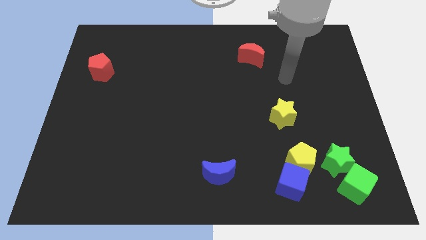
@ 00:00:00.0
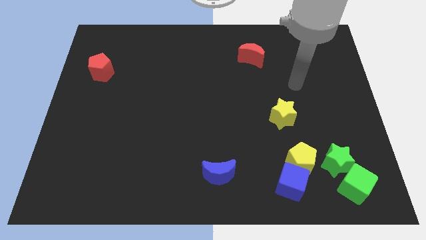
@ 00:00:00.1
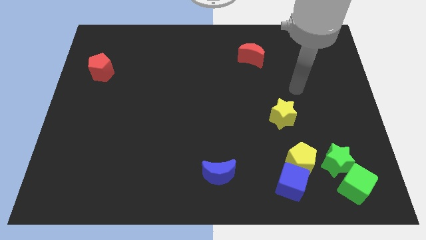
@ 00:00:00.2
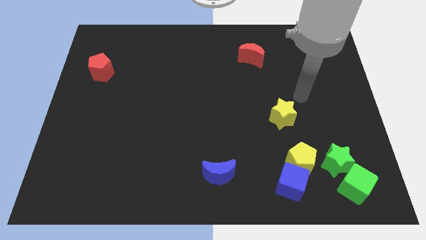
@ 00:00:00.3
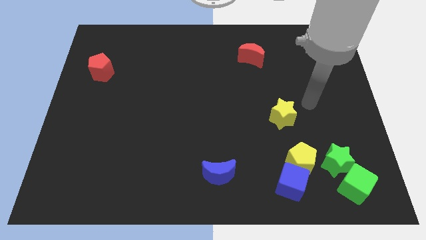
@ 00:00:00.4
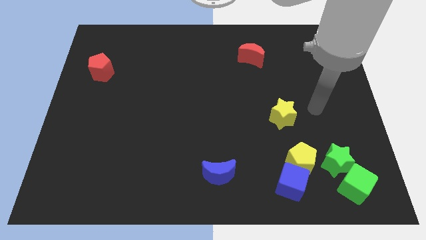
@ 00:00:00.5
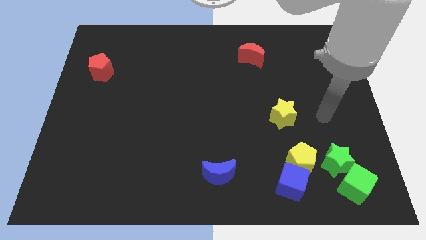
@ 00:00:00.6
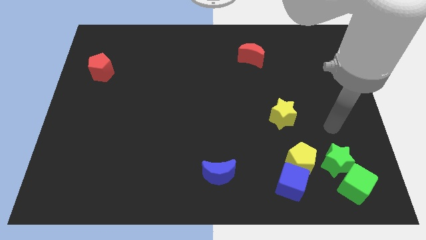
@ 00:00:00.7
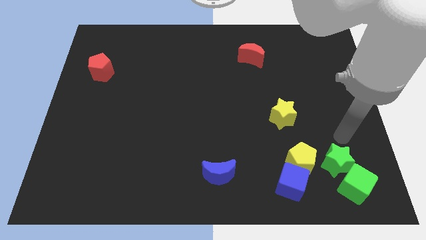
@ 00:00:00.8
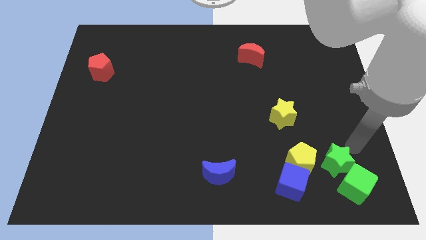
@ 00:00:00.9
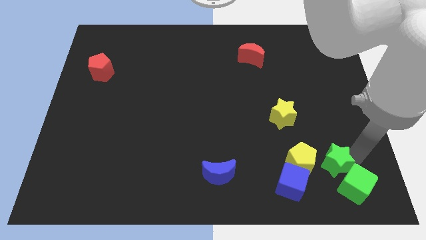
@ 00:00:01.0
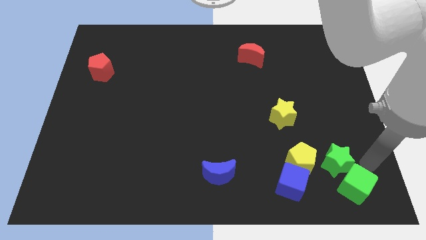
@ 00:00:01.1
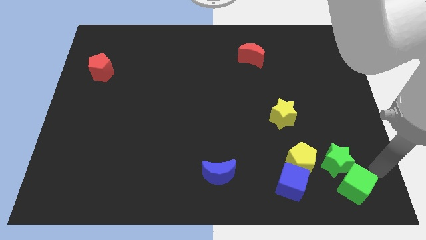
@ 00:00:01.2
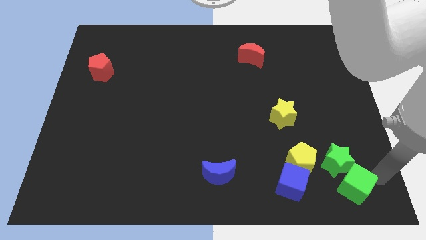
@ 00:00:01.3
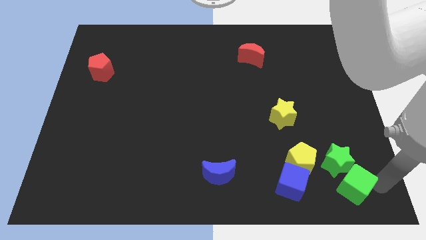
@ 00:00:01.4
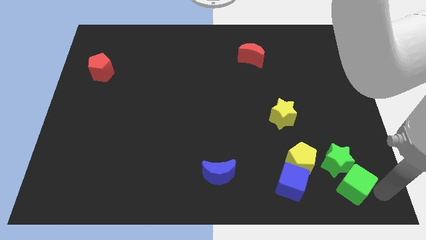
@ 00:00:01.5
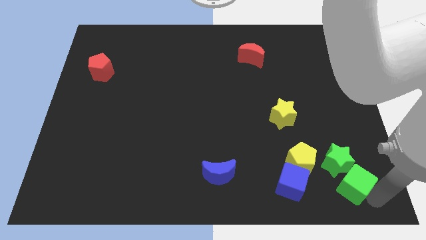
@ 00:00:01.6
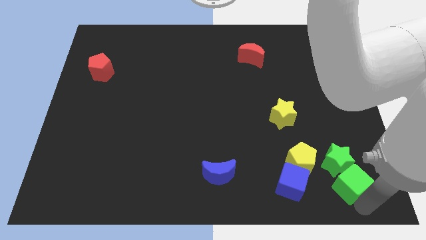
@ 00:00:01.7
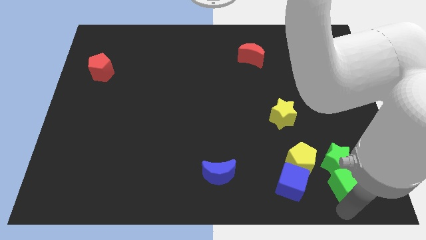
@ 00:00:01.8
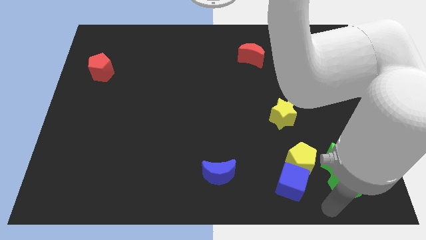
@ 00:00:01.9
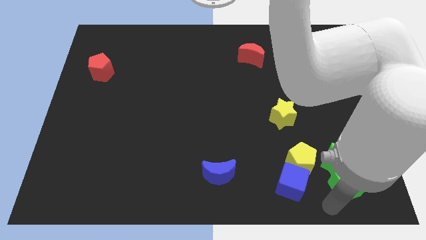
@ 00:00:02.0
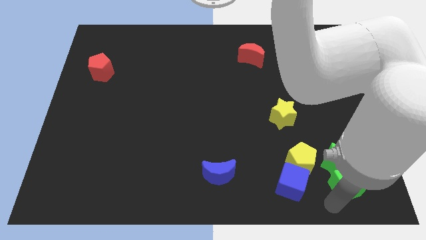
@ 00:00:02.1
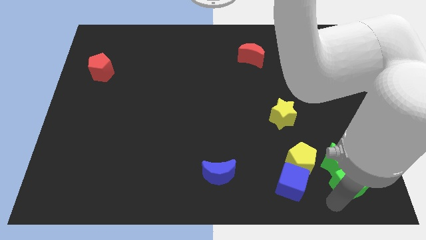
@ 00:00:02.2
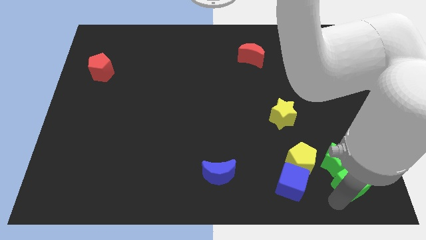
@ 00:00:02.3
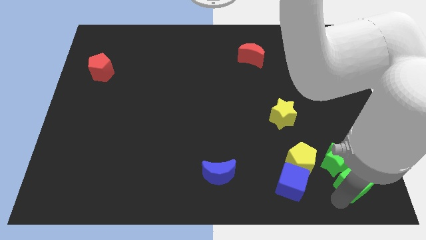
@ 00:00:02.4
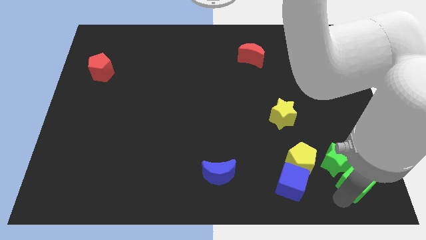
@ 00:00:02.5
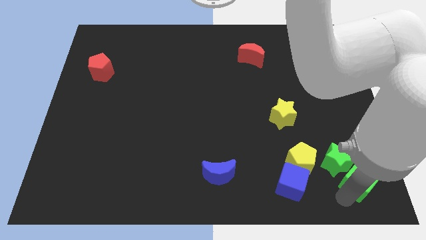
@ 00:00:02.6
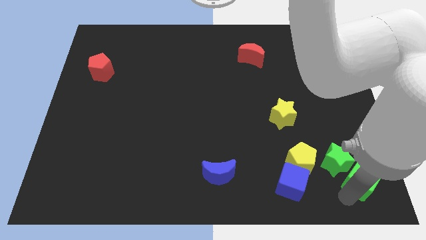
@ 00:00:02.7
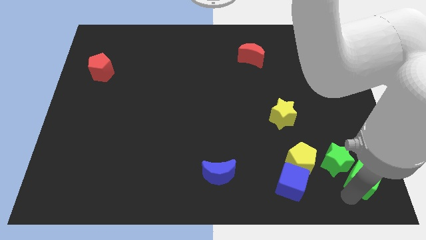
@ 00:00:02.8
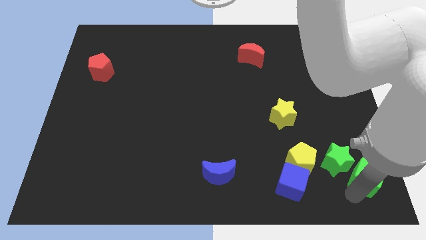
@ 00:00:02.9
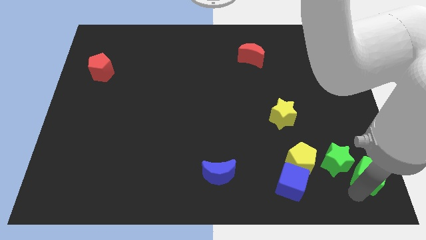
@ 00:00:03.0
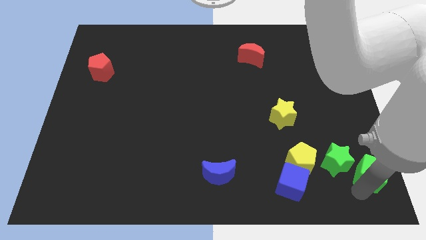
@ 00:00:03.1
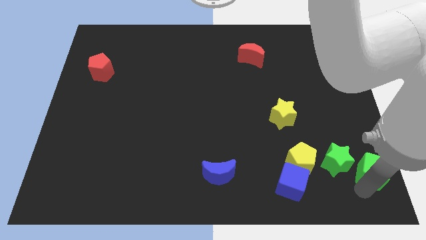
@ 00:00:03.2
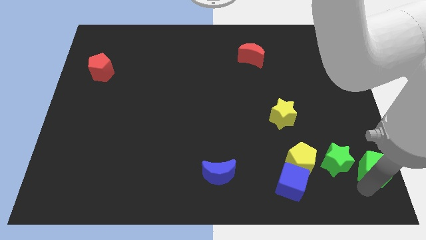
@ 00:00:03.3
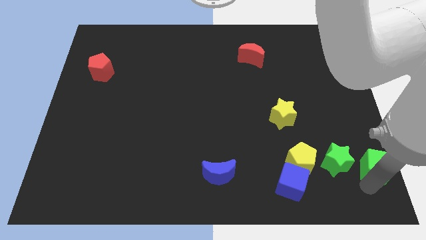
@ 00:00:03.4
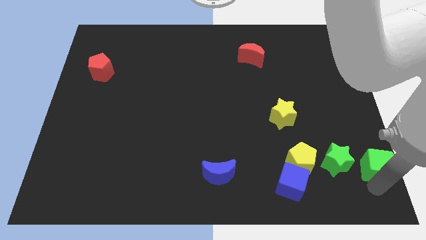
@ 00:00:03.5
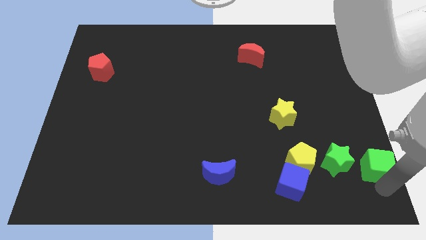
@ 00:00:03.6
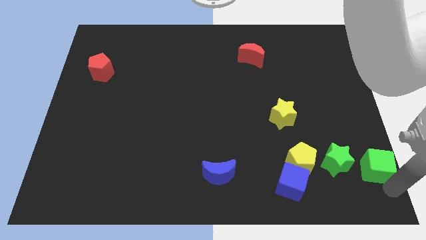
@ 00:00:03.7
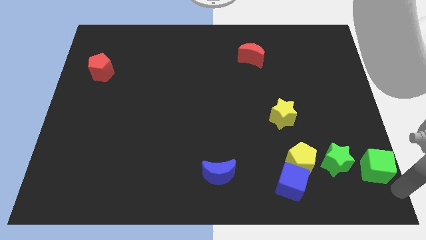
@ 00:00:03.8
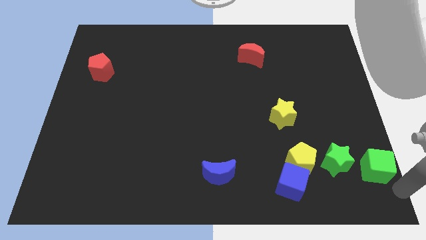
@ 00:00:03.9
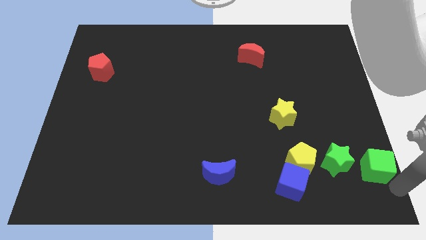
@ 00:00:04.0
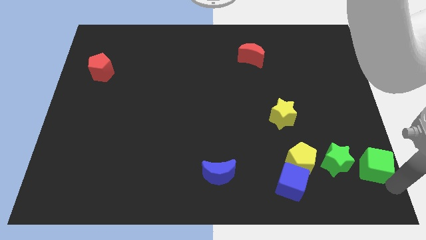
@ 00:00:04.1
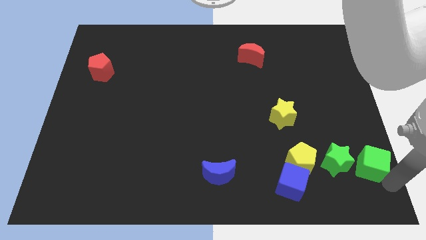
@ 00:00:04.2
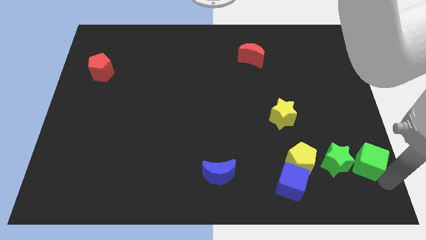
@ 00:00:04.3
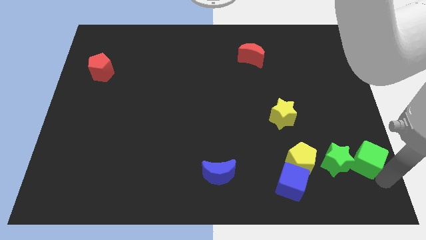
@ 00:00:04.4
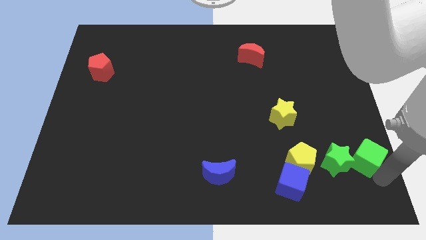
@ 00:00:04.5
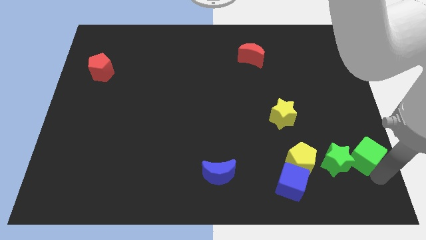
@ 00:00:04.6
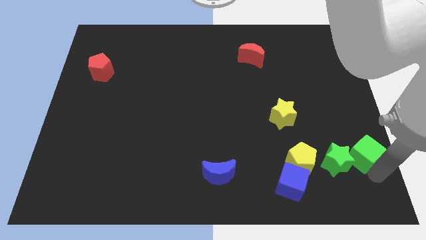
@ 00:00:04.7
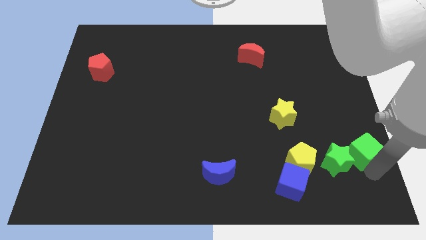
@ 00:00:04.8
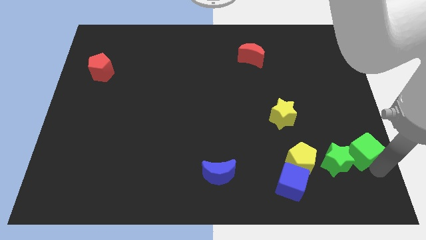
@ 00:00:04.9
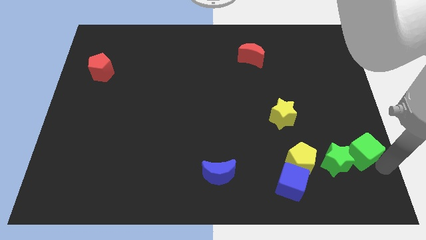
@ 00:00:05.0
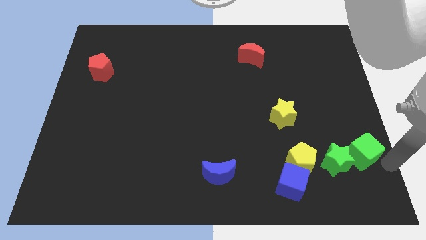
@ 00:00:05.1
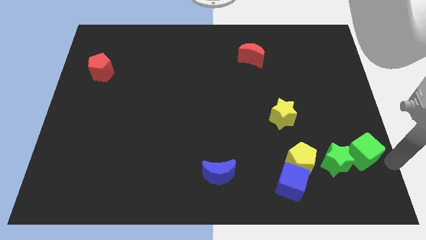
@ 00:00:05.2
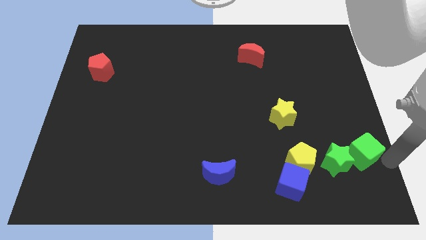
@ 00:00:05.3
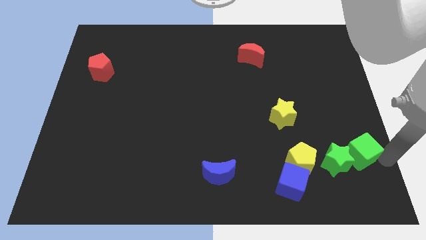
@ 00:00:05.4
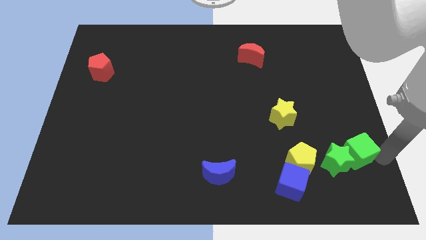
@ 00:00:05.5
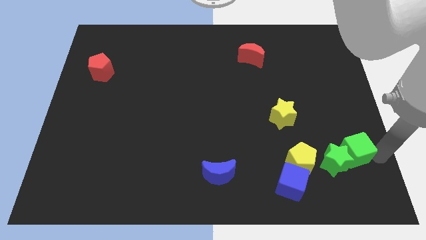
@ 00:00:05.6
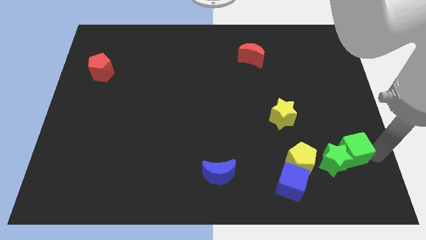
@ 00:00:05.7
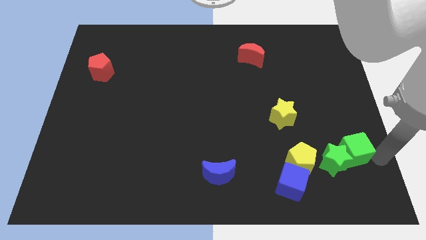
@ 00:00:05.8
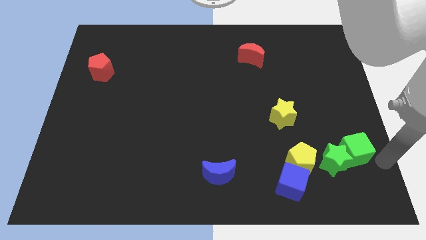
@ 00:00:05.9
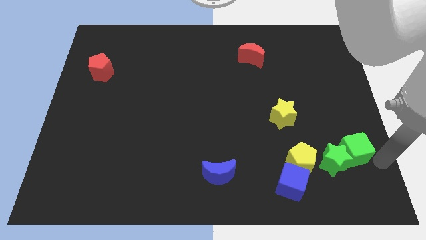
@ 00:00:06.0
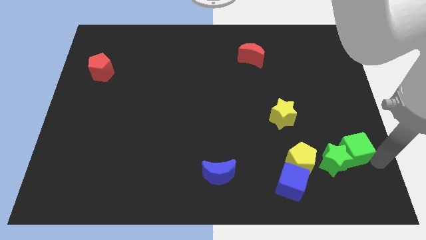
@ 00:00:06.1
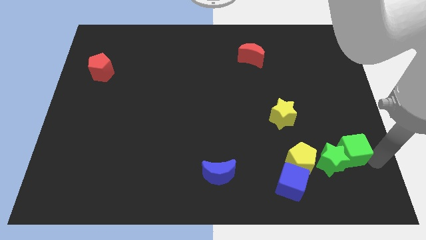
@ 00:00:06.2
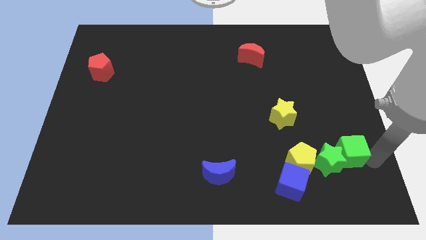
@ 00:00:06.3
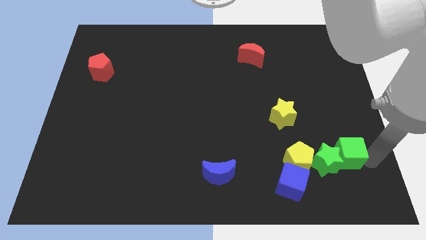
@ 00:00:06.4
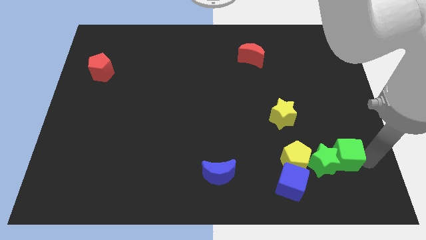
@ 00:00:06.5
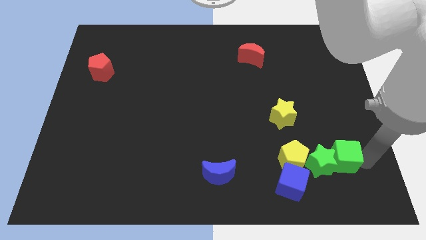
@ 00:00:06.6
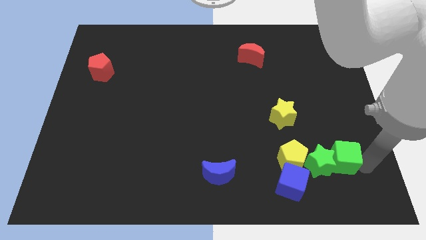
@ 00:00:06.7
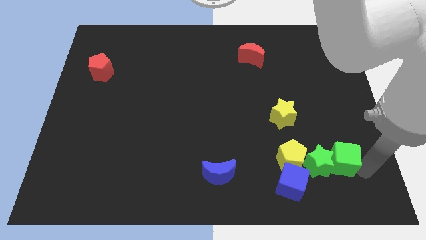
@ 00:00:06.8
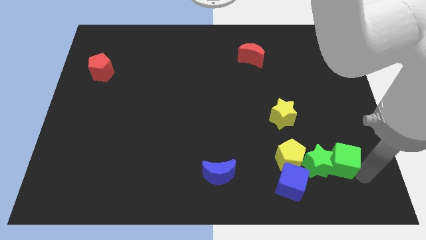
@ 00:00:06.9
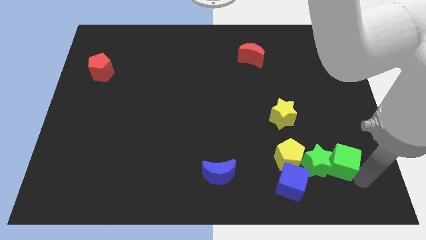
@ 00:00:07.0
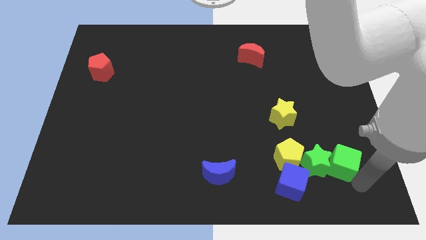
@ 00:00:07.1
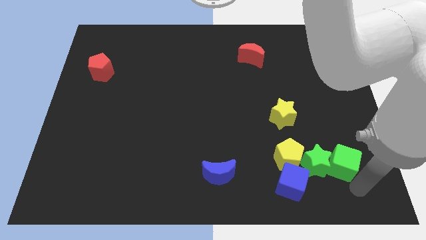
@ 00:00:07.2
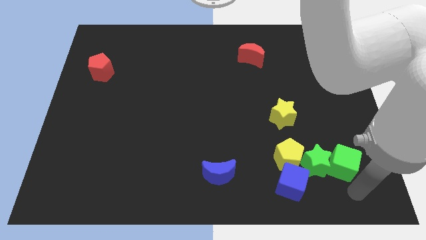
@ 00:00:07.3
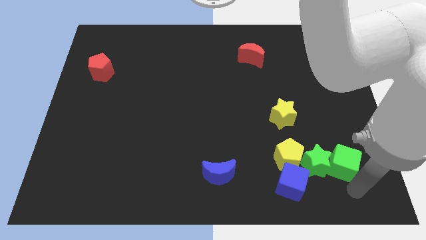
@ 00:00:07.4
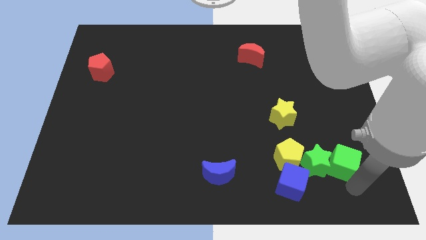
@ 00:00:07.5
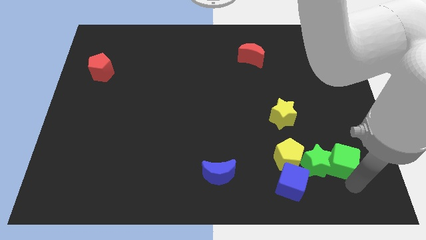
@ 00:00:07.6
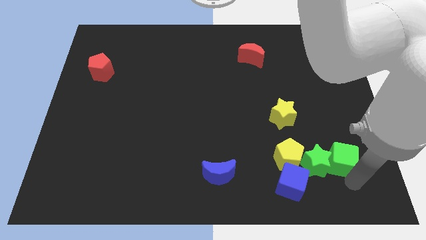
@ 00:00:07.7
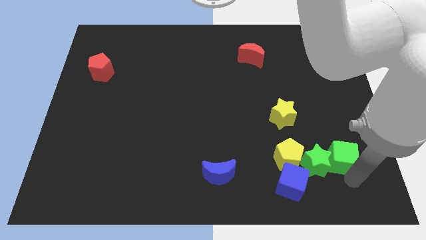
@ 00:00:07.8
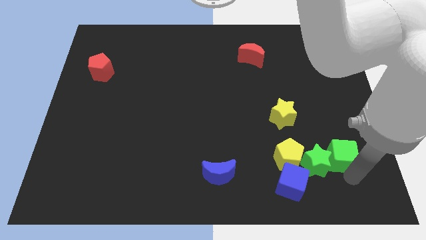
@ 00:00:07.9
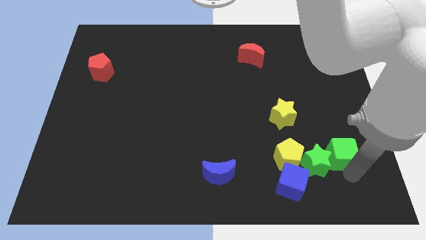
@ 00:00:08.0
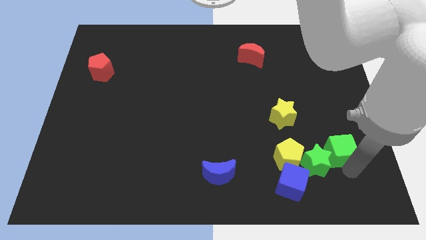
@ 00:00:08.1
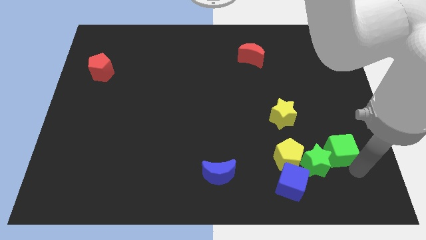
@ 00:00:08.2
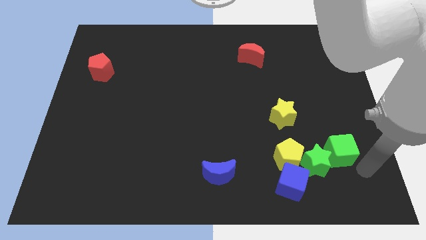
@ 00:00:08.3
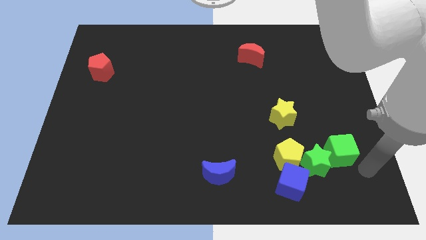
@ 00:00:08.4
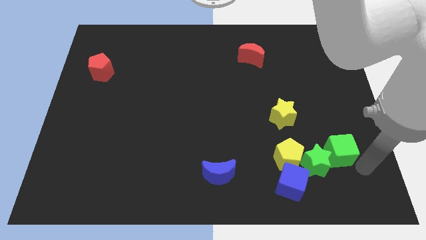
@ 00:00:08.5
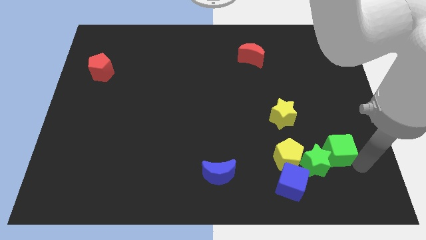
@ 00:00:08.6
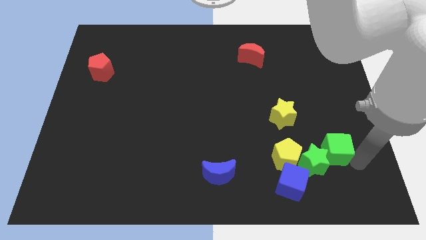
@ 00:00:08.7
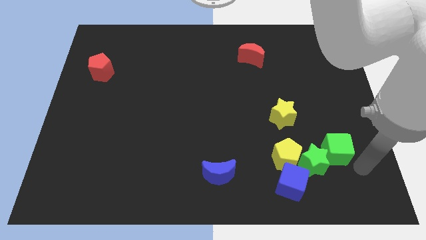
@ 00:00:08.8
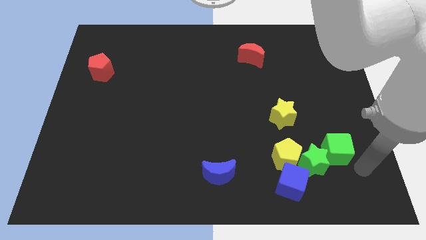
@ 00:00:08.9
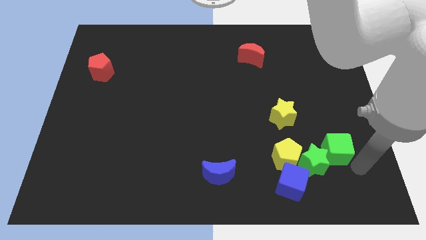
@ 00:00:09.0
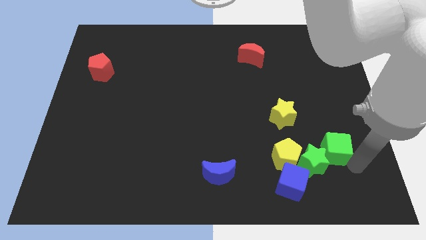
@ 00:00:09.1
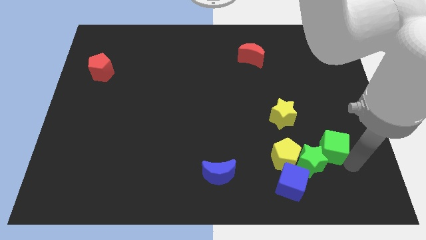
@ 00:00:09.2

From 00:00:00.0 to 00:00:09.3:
push the green cube diagonally down and to the right of the yellow star
